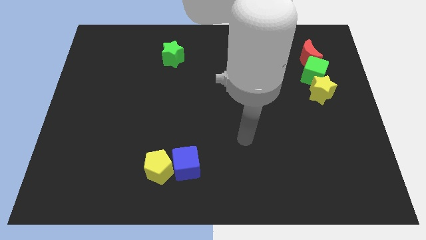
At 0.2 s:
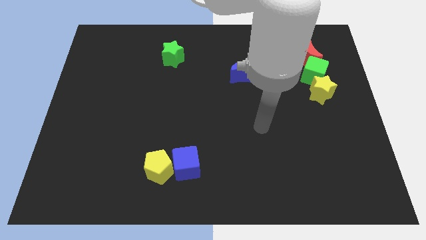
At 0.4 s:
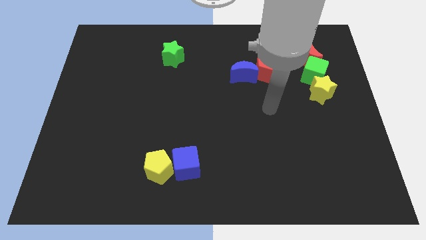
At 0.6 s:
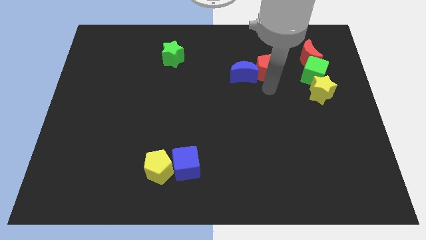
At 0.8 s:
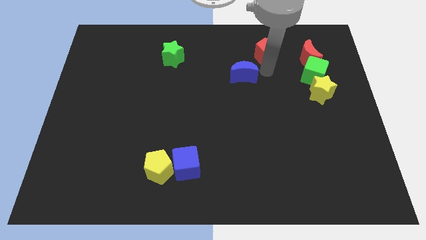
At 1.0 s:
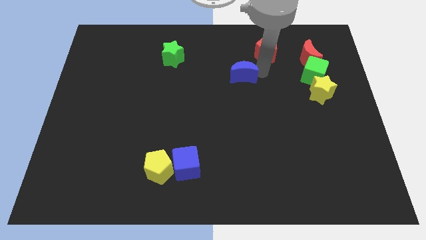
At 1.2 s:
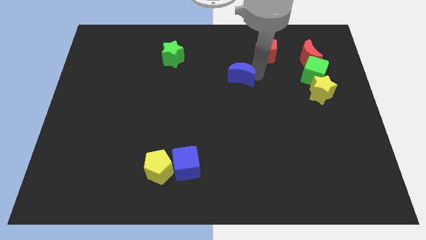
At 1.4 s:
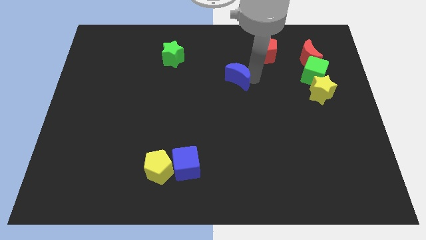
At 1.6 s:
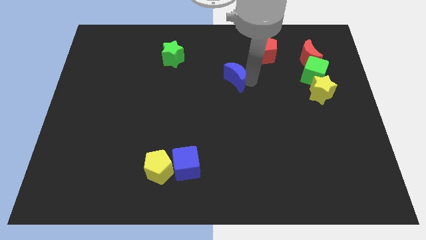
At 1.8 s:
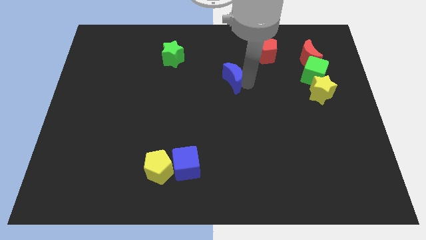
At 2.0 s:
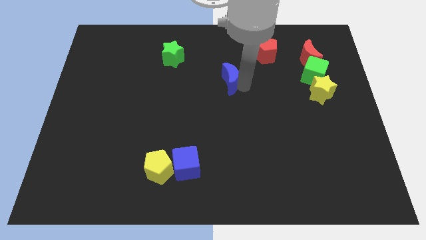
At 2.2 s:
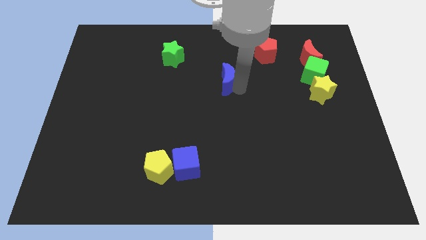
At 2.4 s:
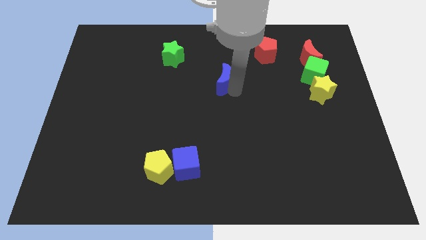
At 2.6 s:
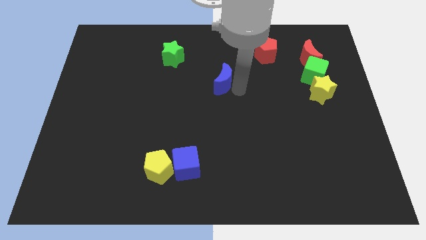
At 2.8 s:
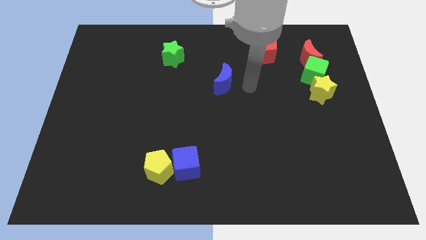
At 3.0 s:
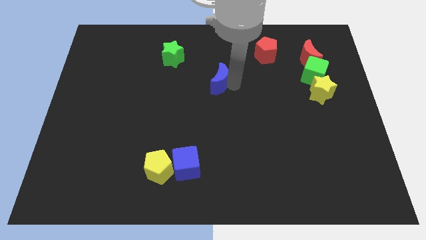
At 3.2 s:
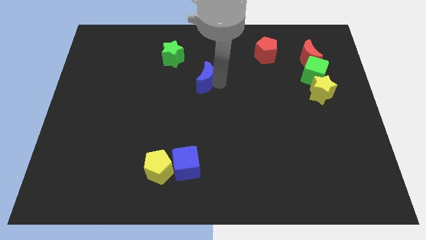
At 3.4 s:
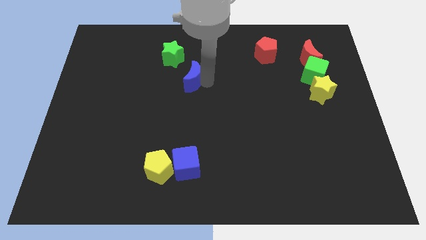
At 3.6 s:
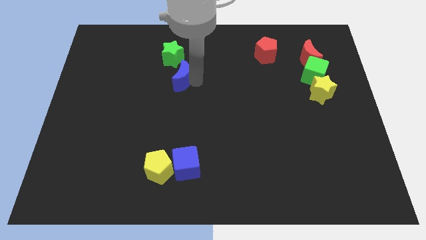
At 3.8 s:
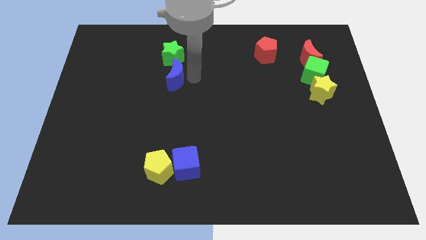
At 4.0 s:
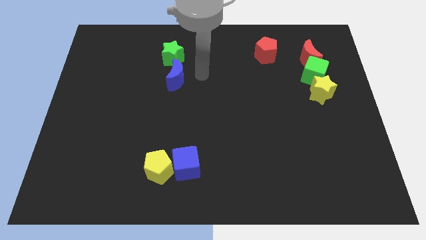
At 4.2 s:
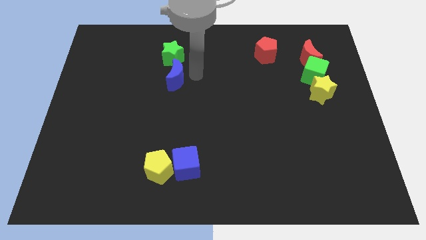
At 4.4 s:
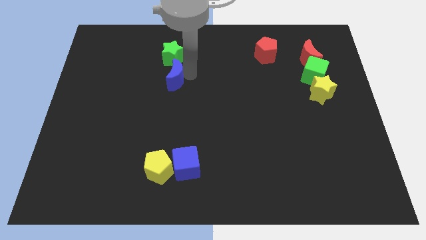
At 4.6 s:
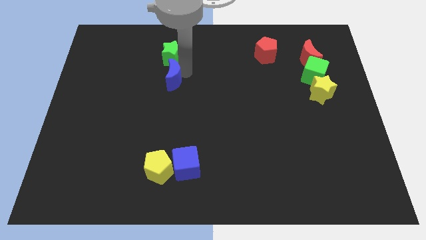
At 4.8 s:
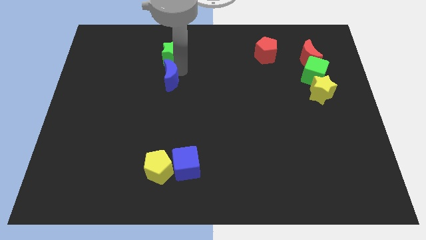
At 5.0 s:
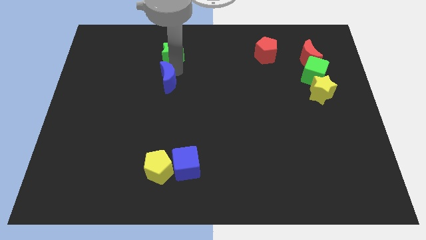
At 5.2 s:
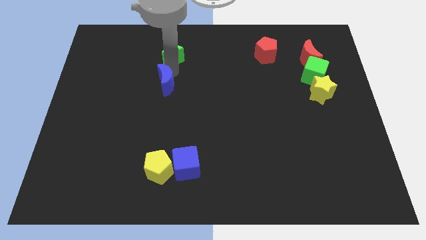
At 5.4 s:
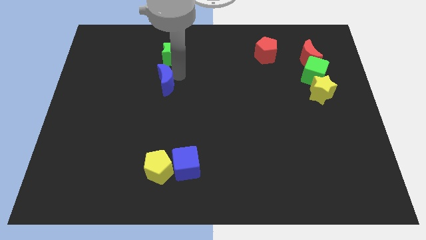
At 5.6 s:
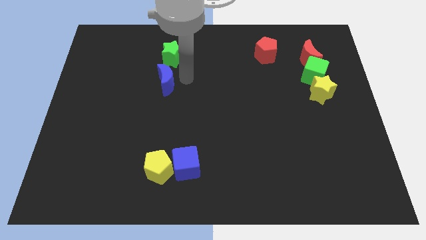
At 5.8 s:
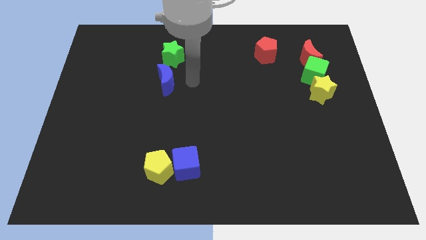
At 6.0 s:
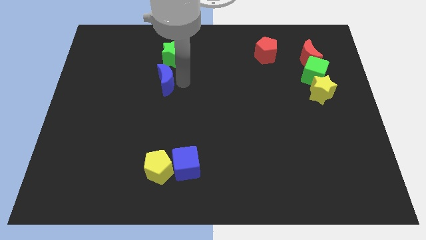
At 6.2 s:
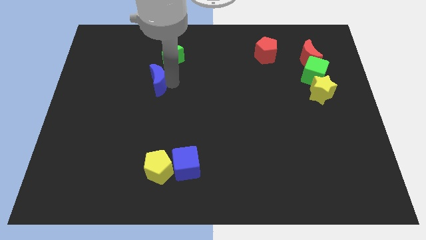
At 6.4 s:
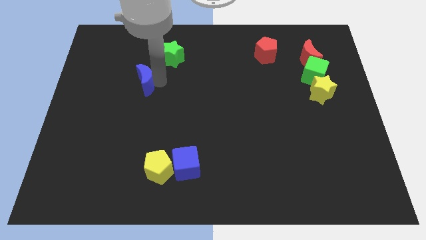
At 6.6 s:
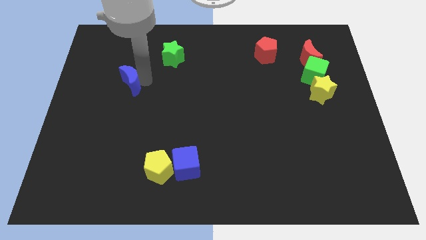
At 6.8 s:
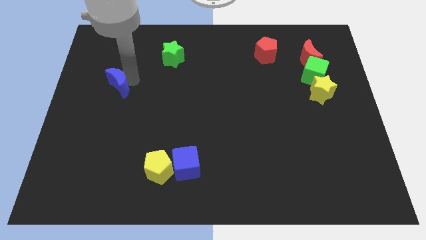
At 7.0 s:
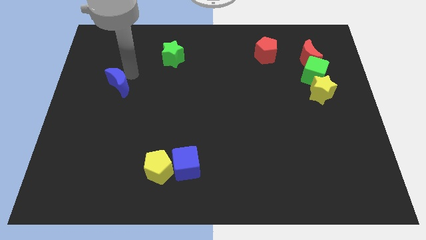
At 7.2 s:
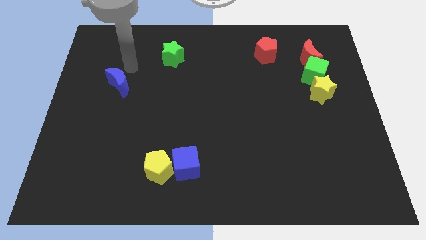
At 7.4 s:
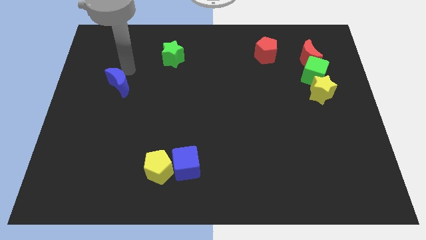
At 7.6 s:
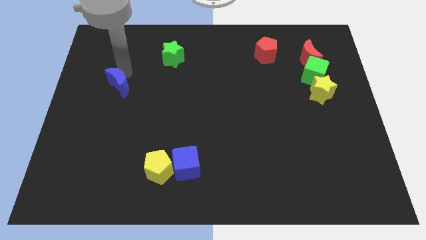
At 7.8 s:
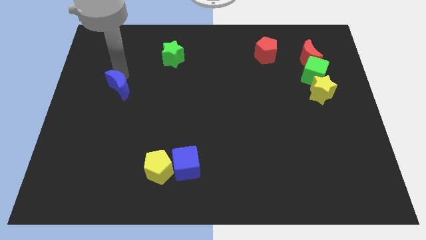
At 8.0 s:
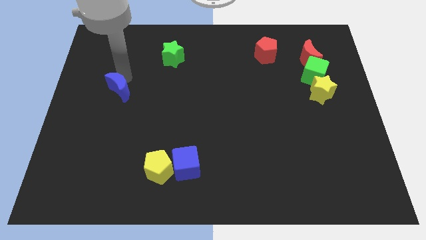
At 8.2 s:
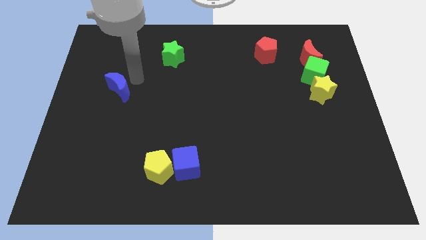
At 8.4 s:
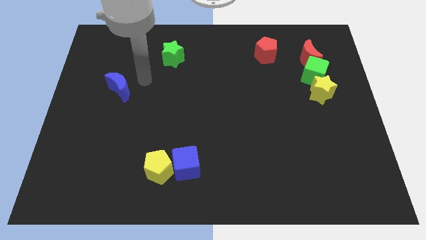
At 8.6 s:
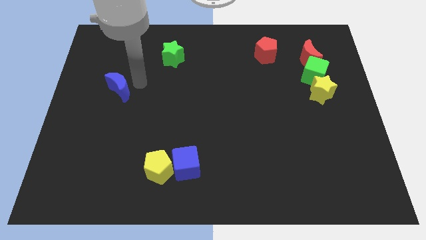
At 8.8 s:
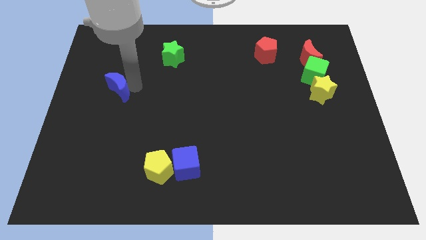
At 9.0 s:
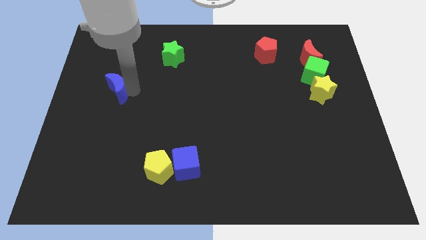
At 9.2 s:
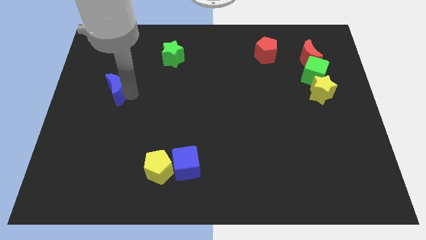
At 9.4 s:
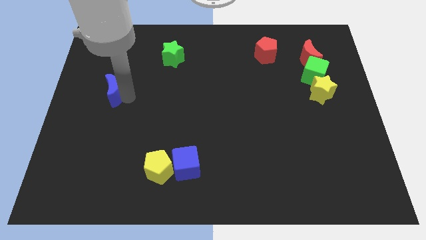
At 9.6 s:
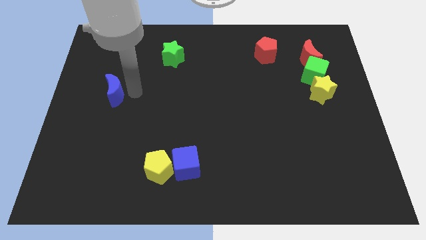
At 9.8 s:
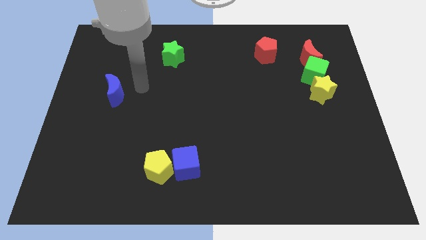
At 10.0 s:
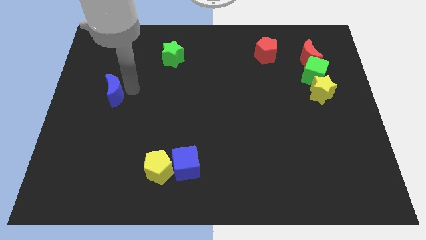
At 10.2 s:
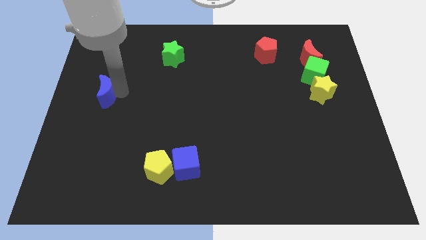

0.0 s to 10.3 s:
move the blue moon to the left side of the board
